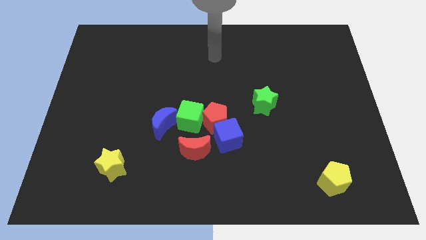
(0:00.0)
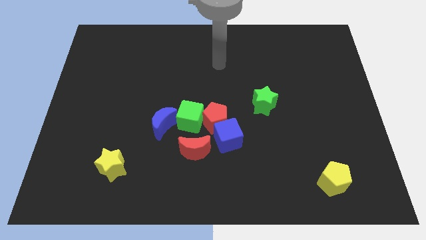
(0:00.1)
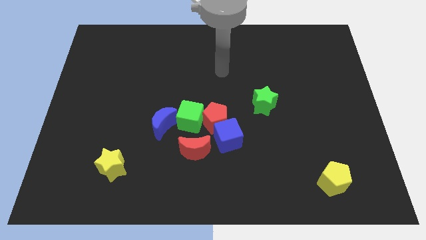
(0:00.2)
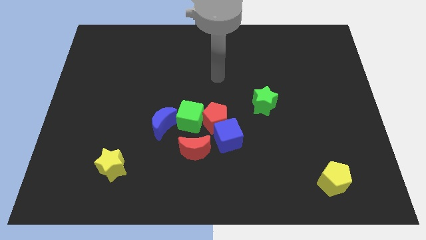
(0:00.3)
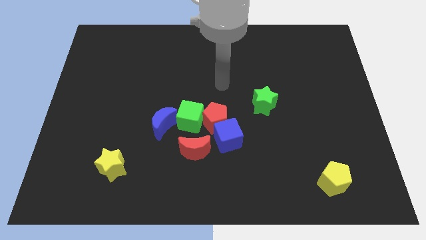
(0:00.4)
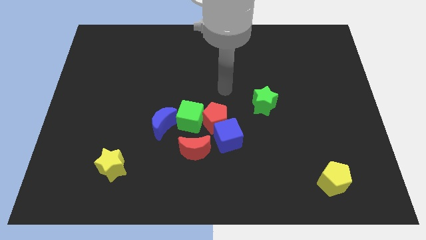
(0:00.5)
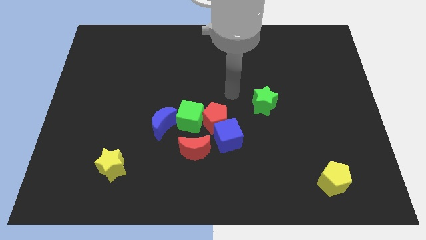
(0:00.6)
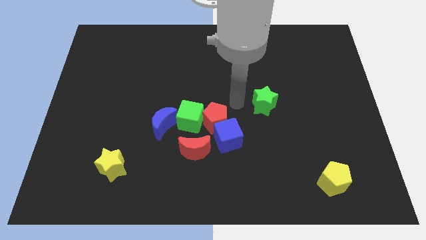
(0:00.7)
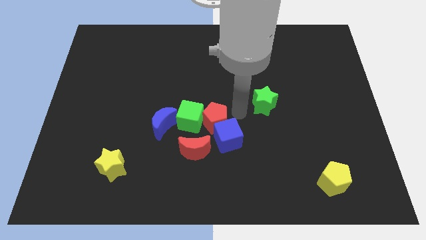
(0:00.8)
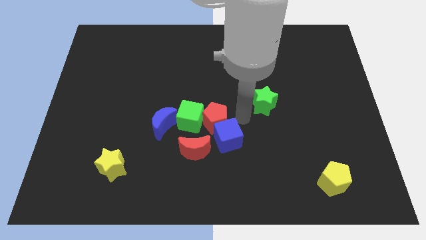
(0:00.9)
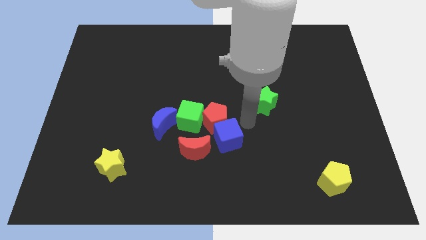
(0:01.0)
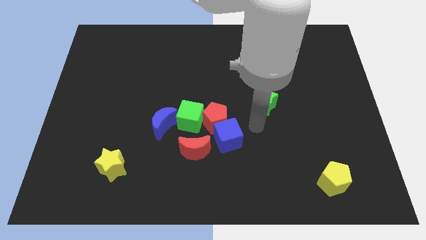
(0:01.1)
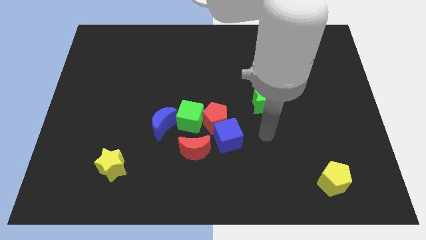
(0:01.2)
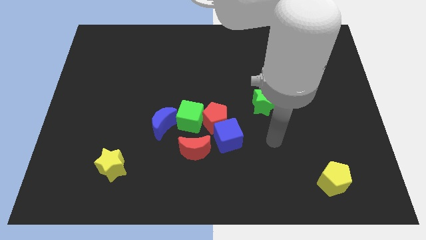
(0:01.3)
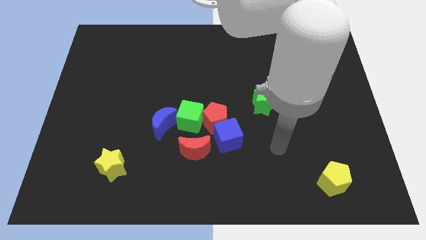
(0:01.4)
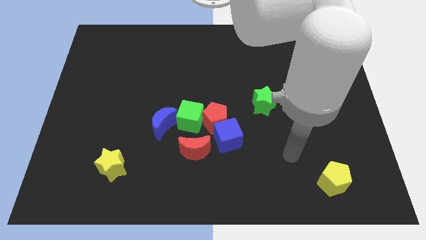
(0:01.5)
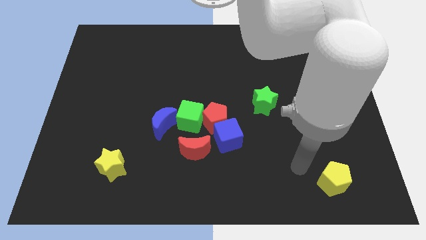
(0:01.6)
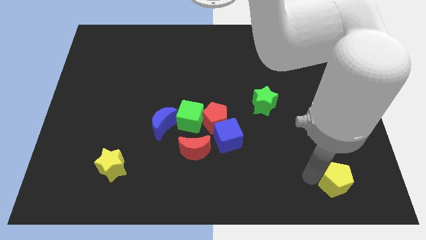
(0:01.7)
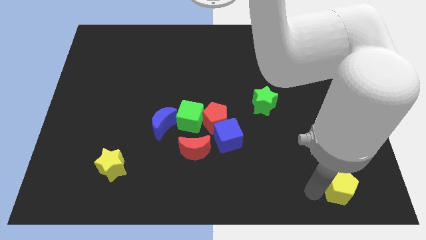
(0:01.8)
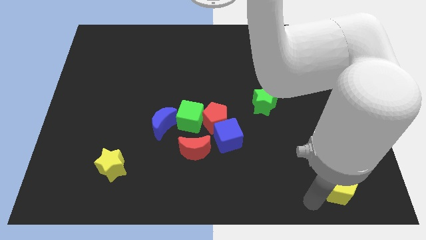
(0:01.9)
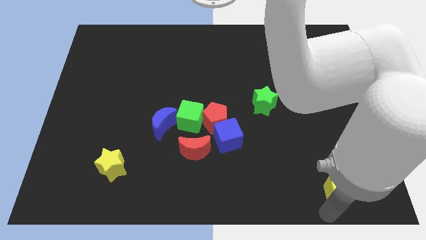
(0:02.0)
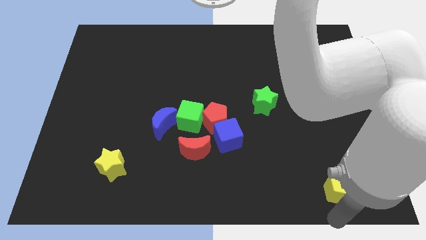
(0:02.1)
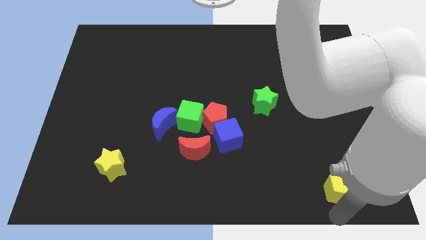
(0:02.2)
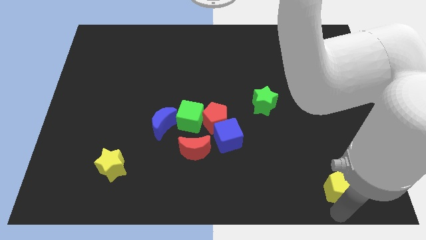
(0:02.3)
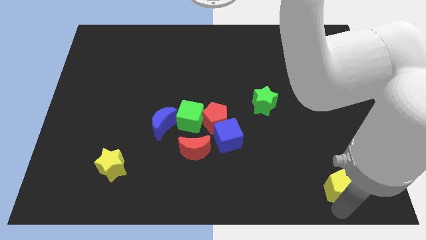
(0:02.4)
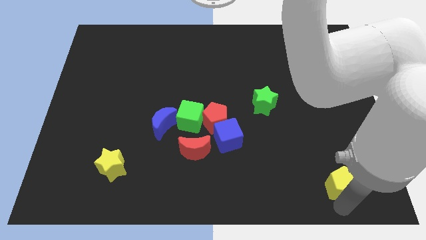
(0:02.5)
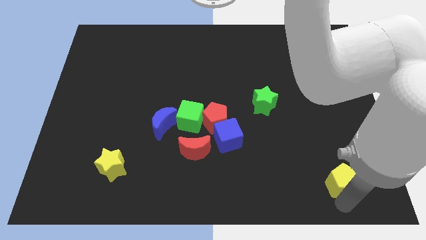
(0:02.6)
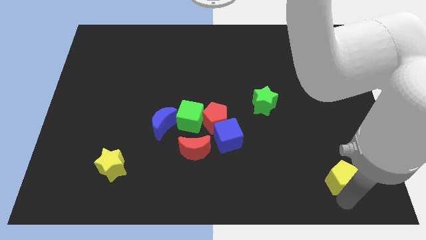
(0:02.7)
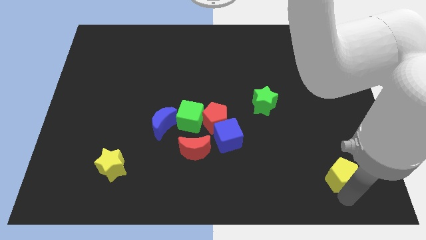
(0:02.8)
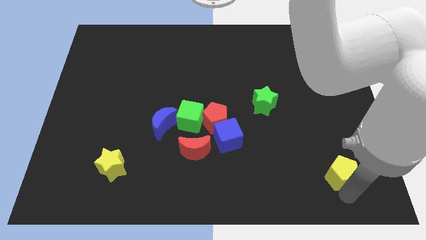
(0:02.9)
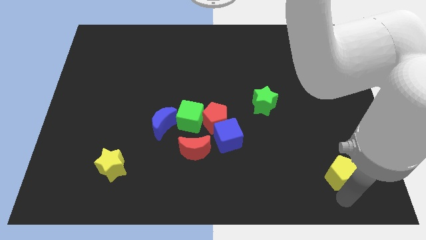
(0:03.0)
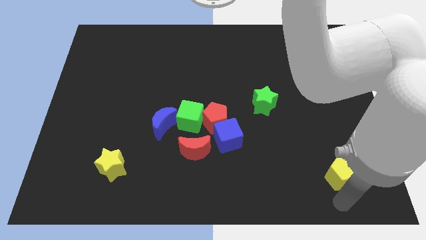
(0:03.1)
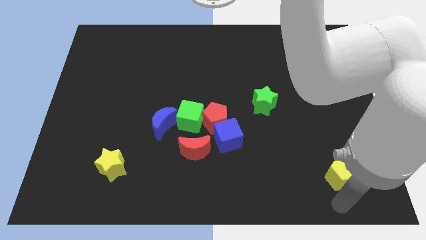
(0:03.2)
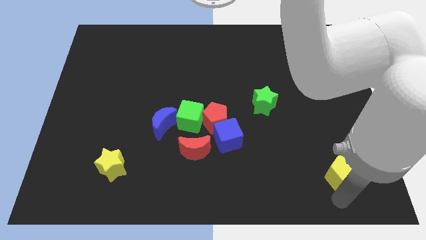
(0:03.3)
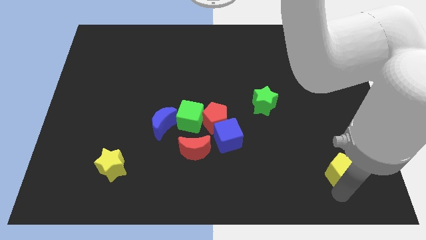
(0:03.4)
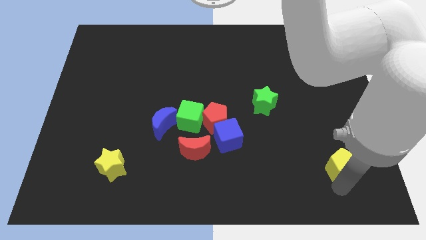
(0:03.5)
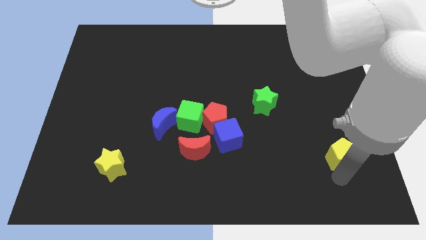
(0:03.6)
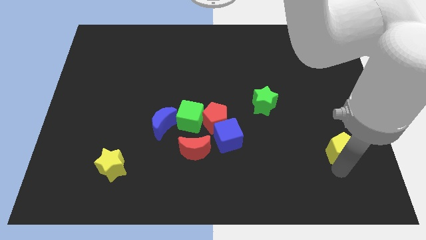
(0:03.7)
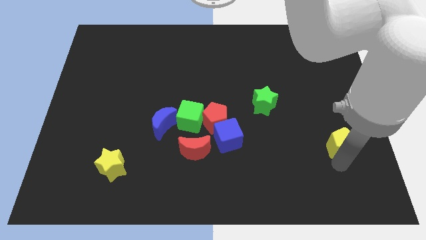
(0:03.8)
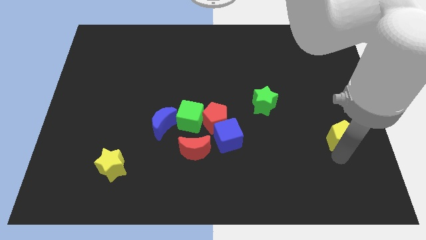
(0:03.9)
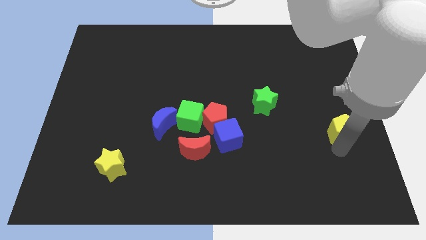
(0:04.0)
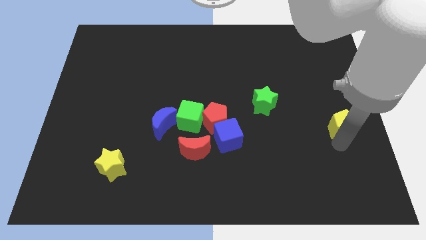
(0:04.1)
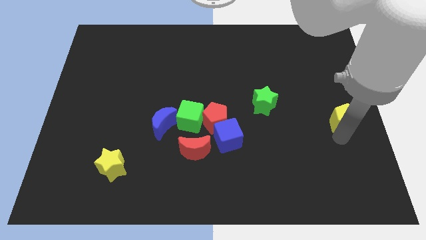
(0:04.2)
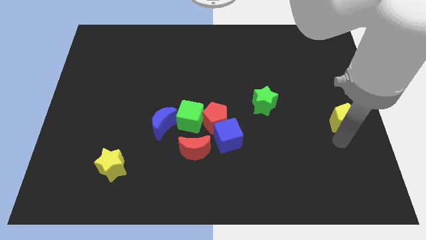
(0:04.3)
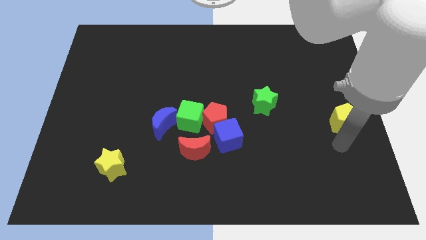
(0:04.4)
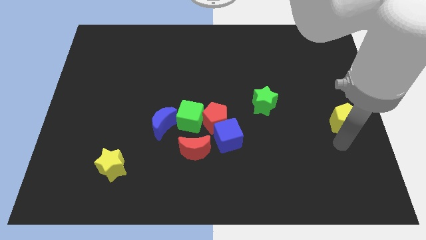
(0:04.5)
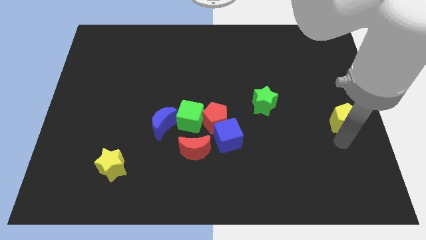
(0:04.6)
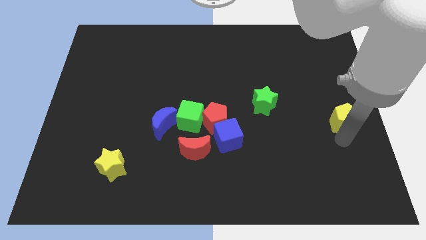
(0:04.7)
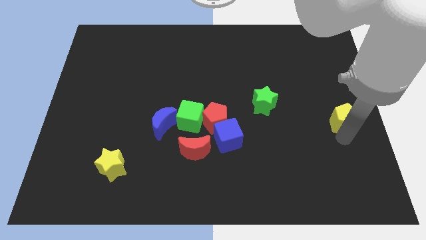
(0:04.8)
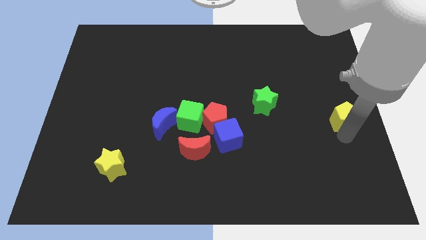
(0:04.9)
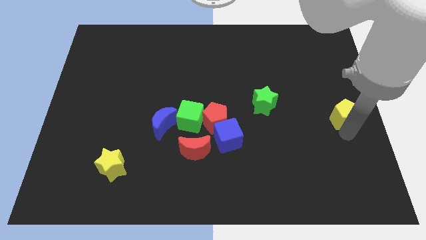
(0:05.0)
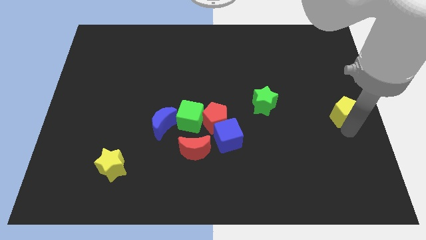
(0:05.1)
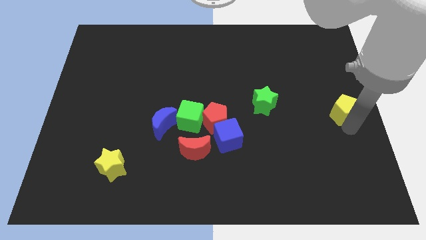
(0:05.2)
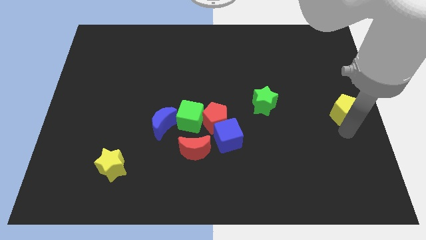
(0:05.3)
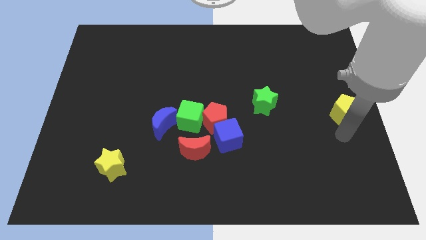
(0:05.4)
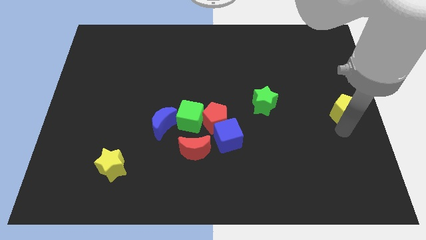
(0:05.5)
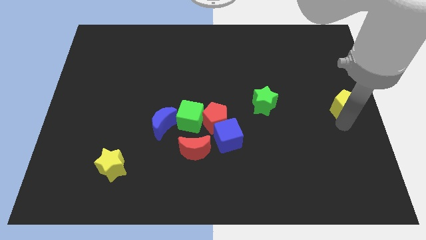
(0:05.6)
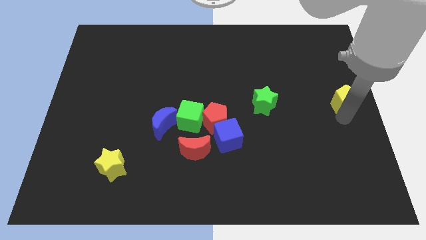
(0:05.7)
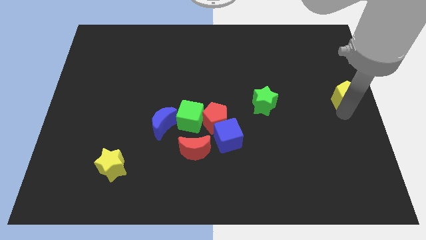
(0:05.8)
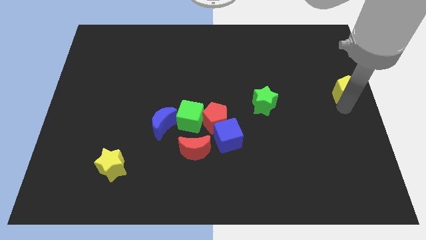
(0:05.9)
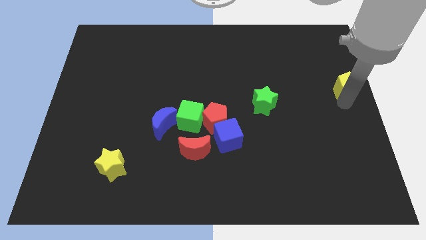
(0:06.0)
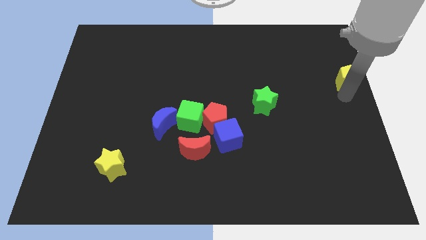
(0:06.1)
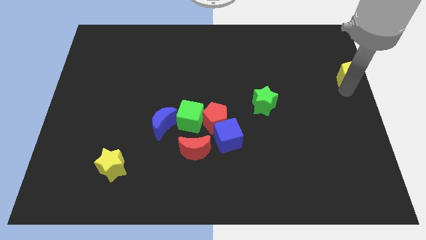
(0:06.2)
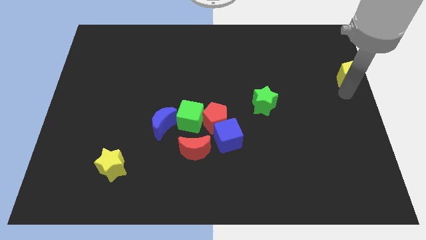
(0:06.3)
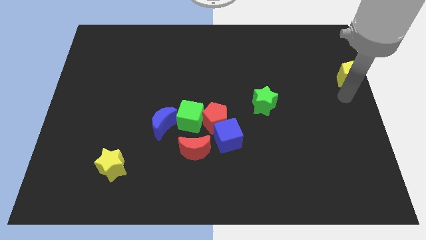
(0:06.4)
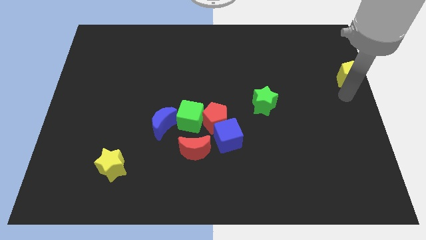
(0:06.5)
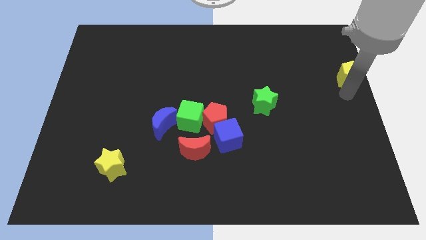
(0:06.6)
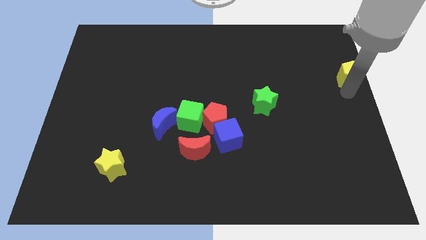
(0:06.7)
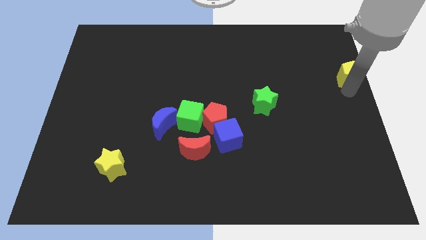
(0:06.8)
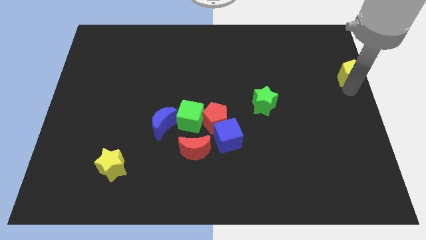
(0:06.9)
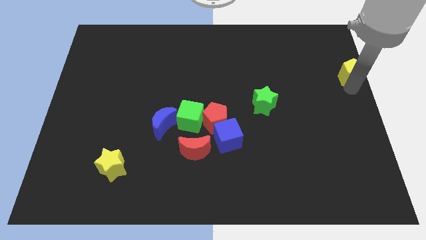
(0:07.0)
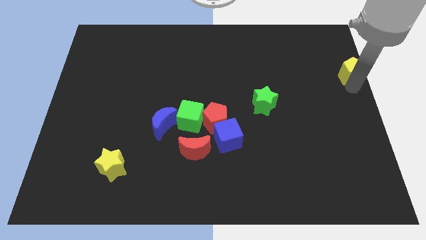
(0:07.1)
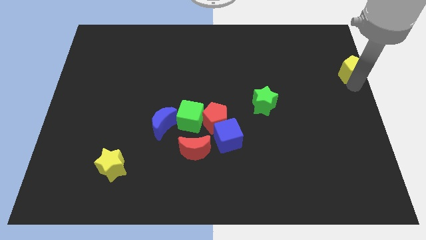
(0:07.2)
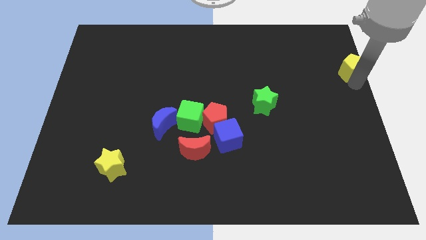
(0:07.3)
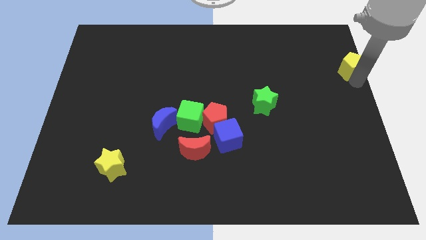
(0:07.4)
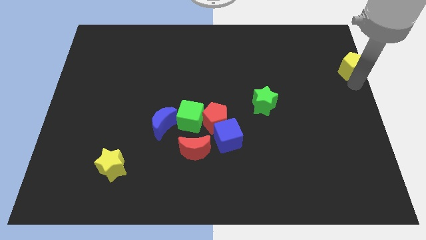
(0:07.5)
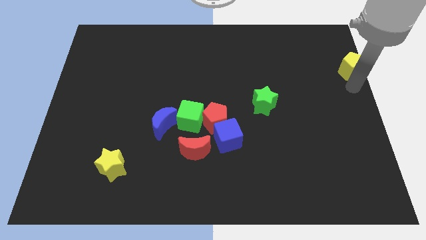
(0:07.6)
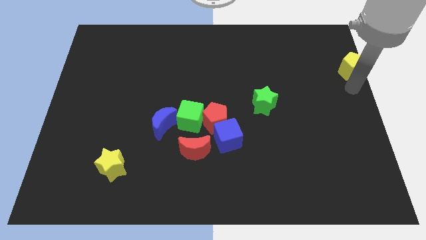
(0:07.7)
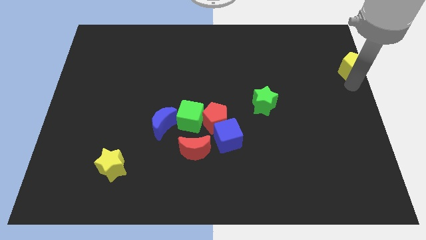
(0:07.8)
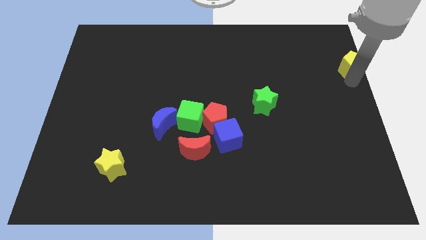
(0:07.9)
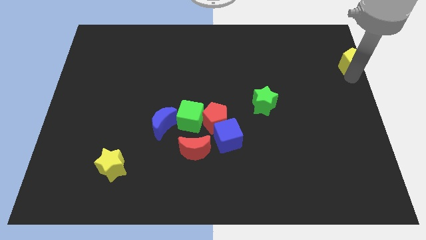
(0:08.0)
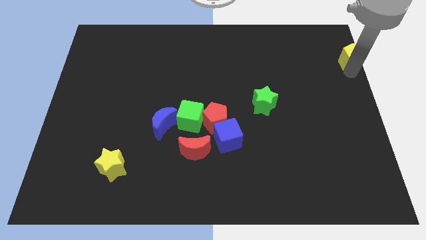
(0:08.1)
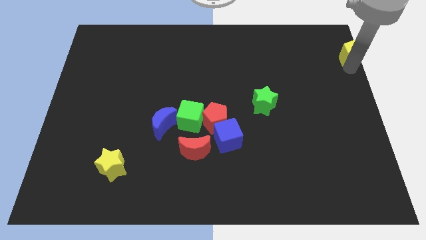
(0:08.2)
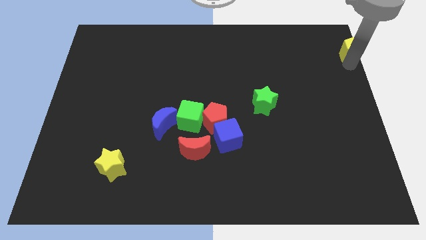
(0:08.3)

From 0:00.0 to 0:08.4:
move the yellow pentagon to the top right of the board
